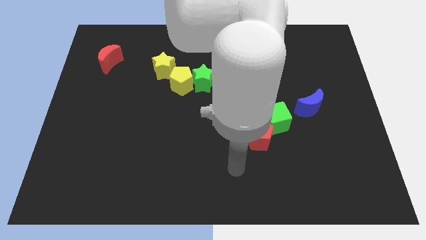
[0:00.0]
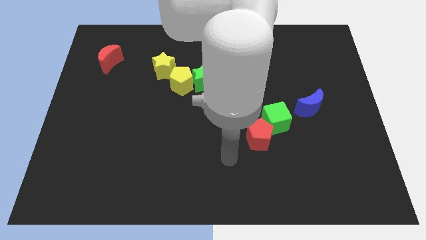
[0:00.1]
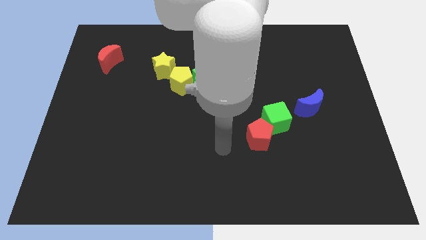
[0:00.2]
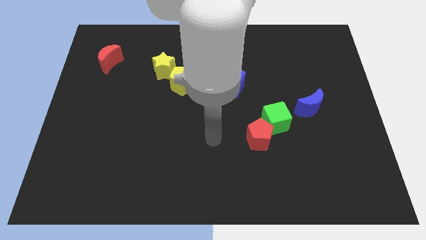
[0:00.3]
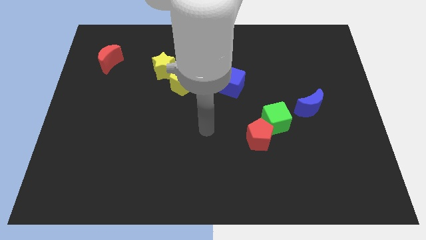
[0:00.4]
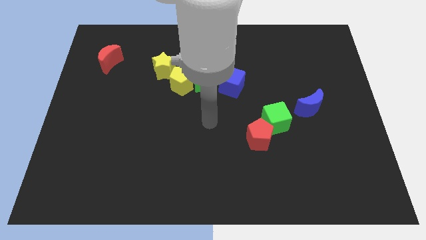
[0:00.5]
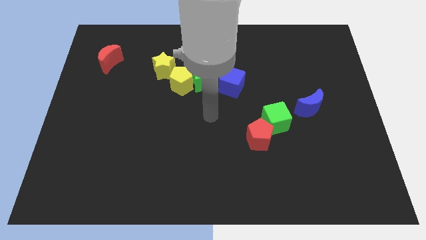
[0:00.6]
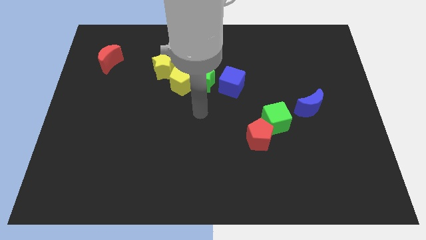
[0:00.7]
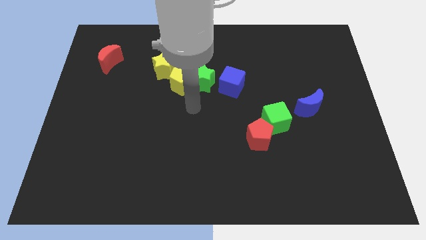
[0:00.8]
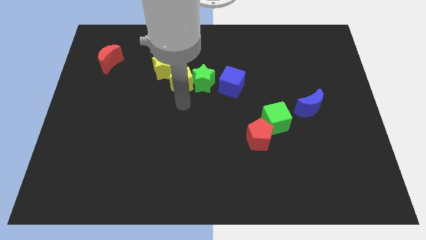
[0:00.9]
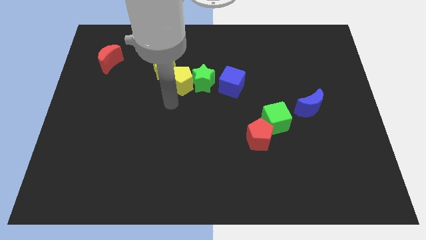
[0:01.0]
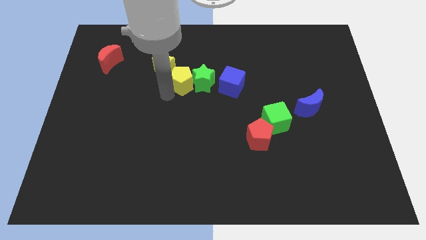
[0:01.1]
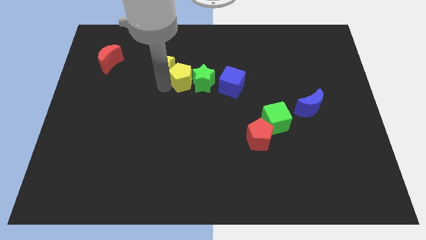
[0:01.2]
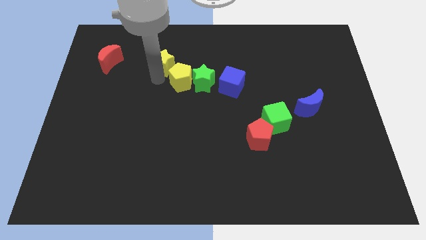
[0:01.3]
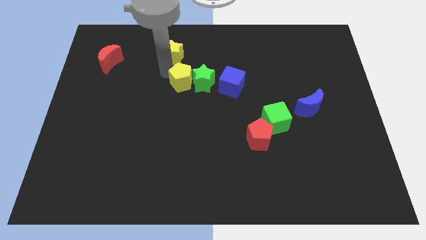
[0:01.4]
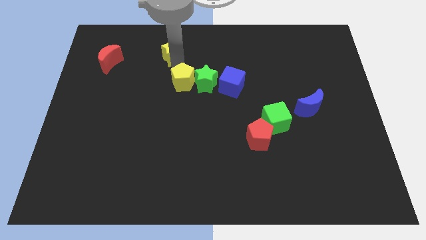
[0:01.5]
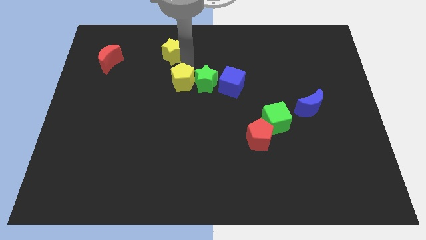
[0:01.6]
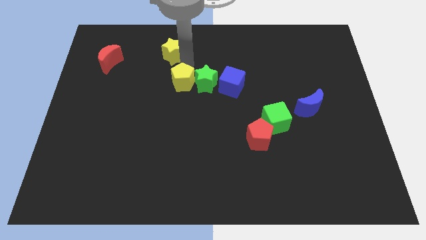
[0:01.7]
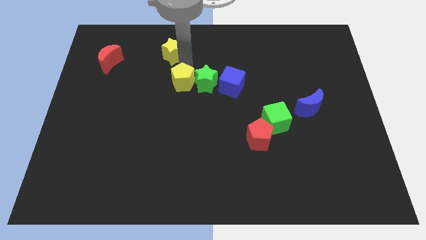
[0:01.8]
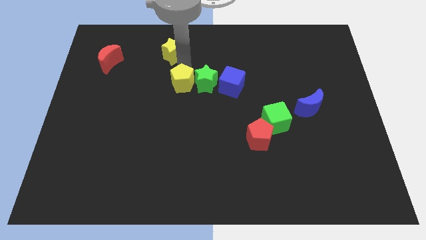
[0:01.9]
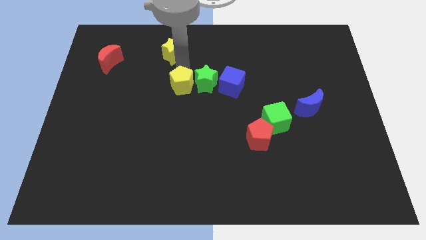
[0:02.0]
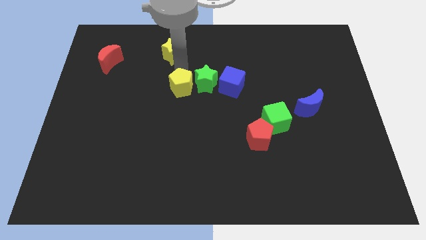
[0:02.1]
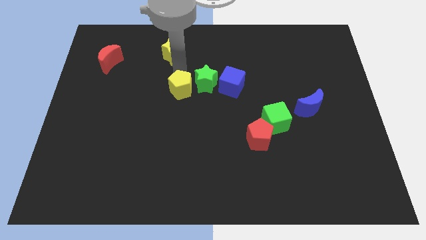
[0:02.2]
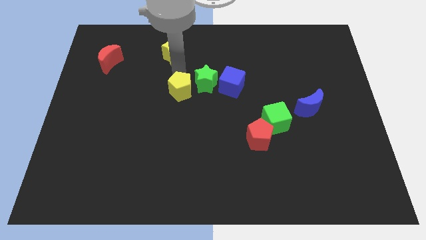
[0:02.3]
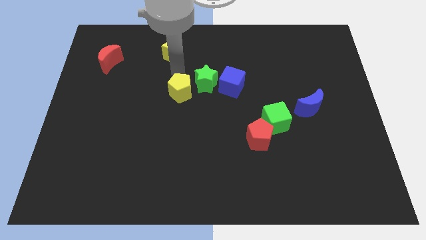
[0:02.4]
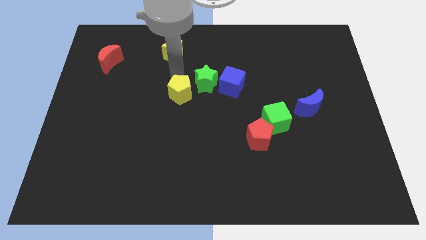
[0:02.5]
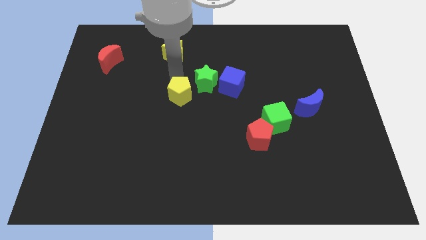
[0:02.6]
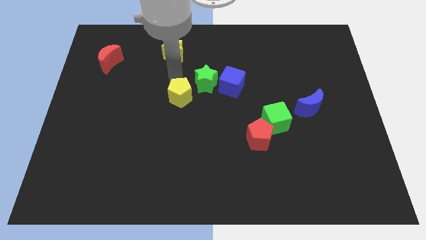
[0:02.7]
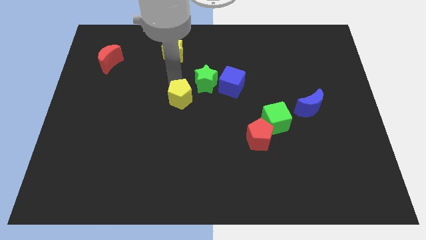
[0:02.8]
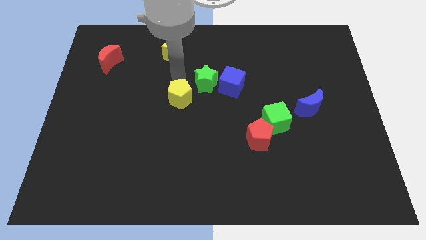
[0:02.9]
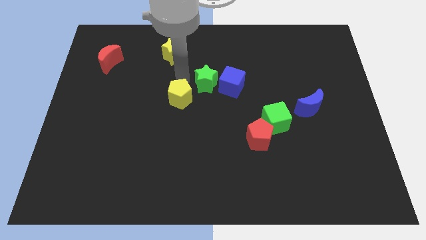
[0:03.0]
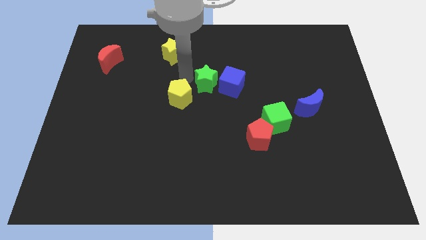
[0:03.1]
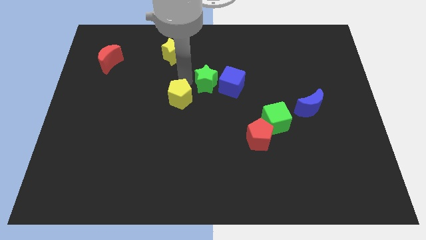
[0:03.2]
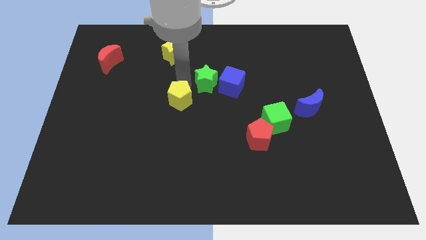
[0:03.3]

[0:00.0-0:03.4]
move the yellow pentagon away from the green star and yellow star

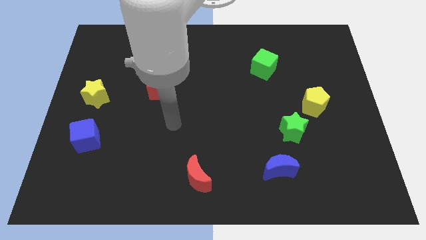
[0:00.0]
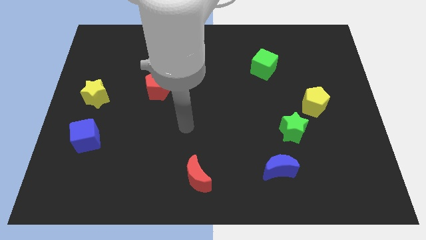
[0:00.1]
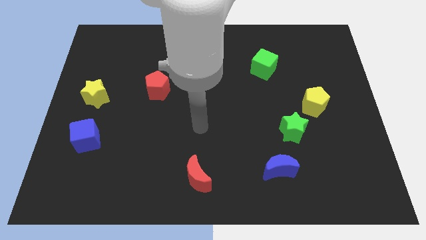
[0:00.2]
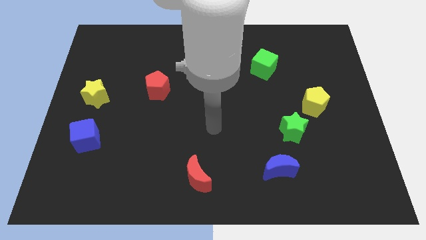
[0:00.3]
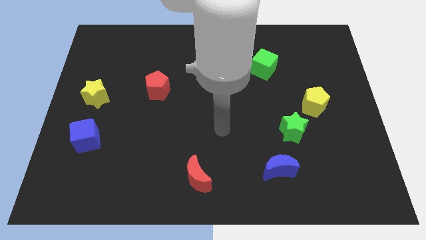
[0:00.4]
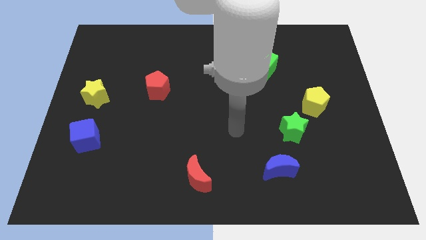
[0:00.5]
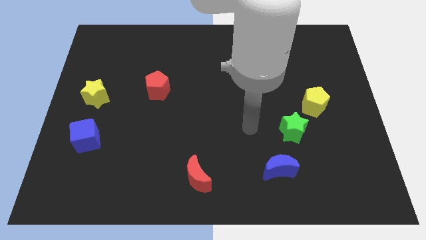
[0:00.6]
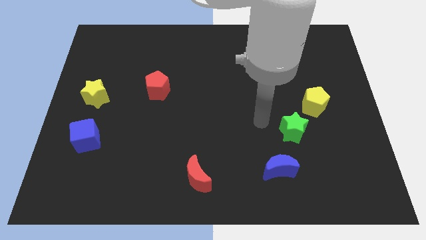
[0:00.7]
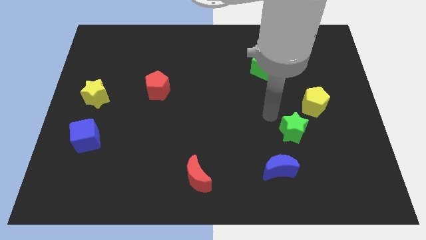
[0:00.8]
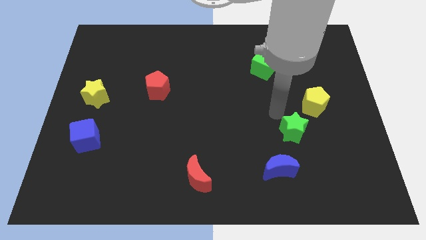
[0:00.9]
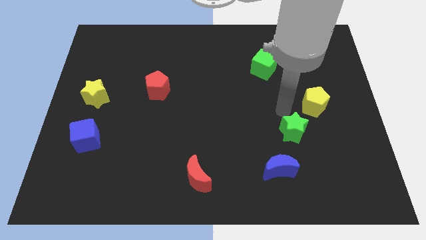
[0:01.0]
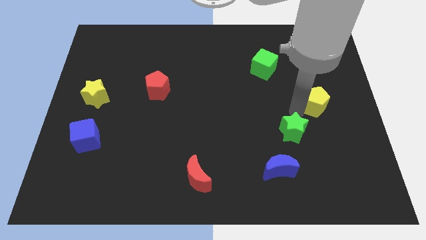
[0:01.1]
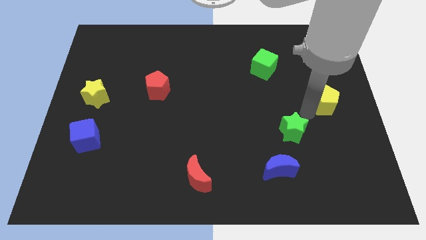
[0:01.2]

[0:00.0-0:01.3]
pull the green star apart from the yellow pentagon

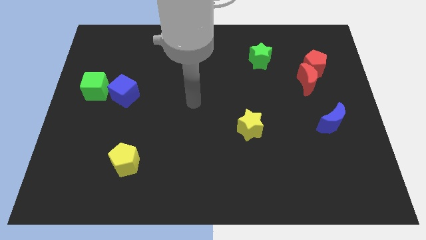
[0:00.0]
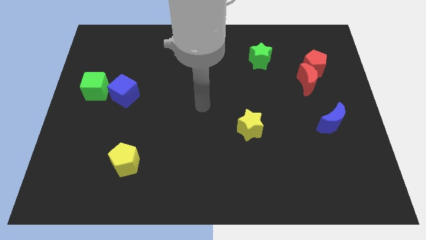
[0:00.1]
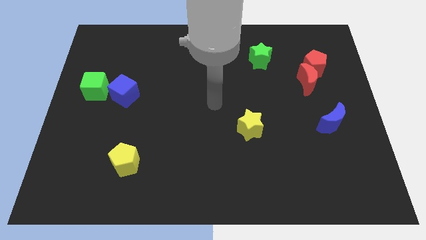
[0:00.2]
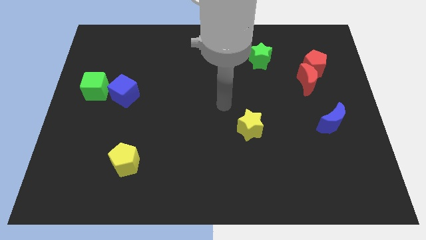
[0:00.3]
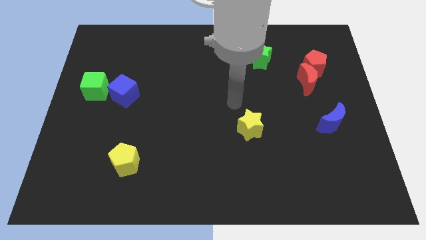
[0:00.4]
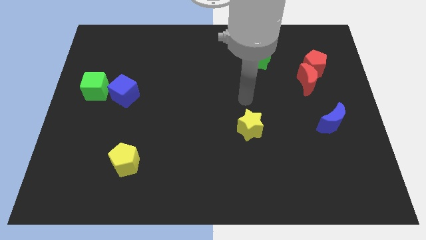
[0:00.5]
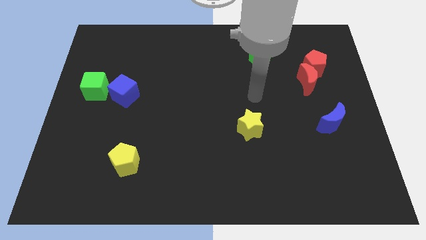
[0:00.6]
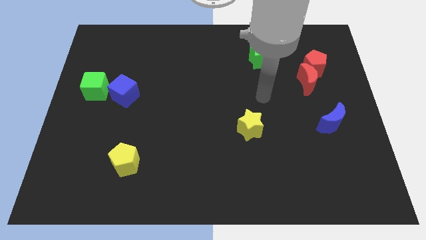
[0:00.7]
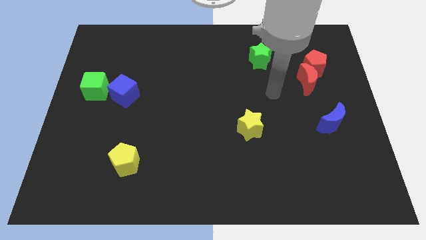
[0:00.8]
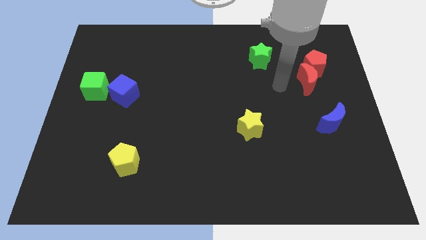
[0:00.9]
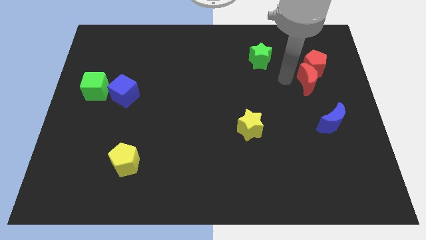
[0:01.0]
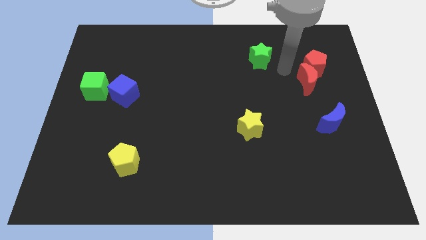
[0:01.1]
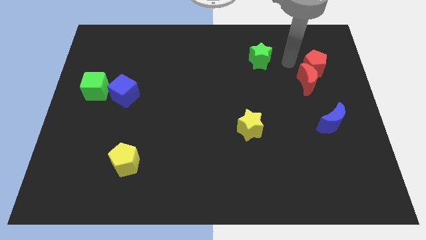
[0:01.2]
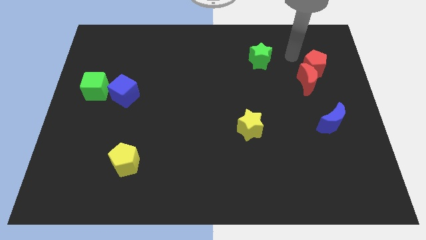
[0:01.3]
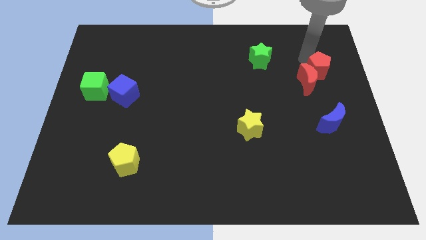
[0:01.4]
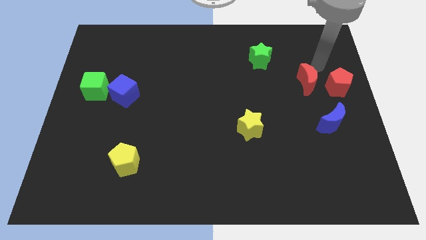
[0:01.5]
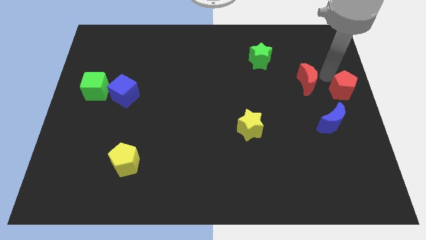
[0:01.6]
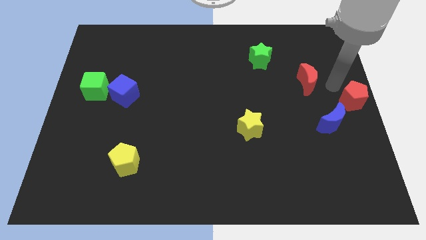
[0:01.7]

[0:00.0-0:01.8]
separate the red moon from the red pentagon

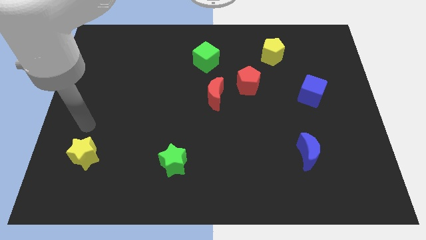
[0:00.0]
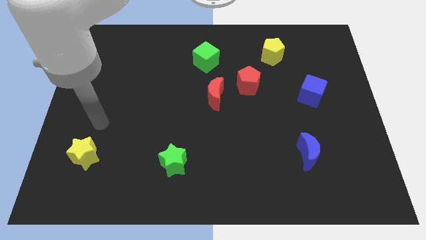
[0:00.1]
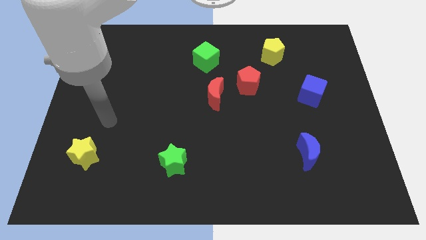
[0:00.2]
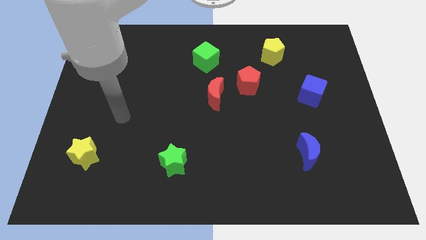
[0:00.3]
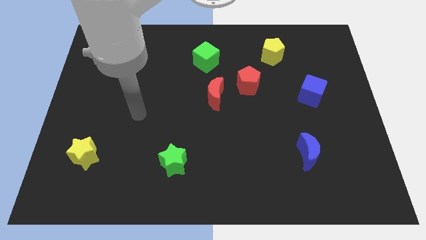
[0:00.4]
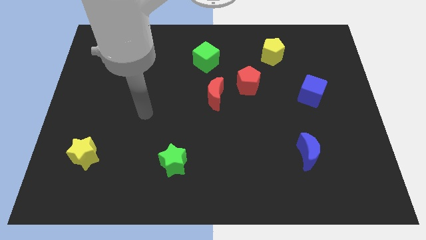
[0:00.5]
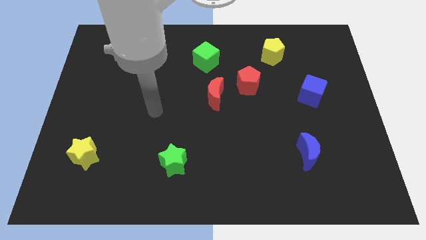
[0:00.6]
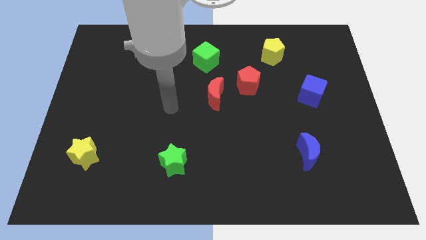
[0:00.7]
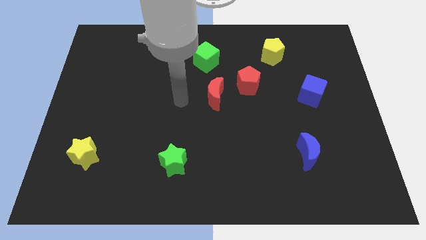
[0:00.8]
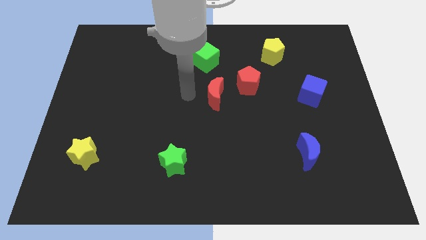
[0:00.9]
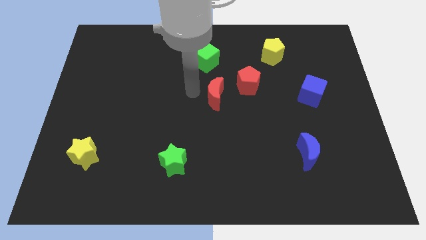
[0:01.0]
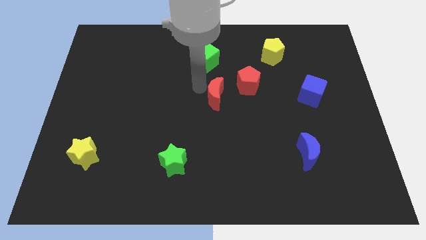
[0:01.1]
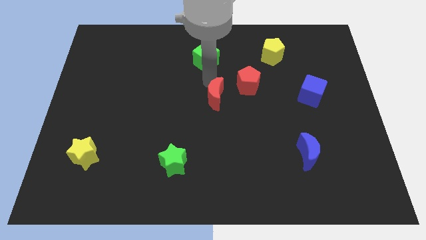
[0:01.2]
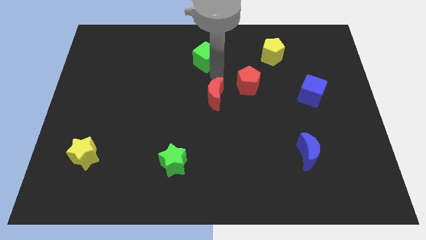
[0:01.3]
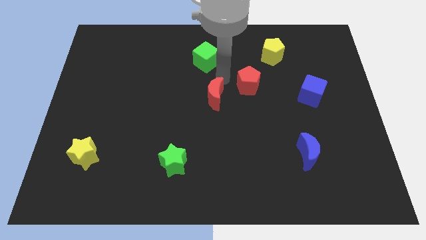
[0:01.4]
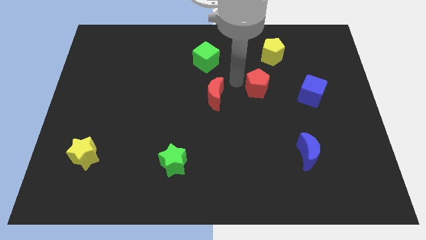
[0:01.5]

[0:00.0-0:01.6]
move the red moon away from the red pentagon

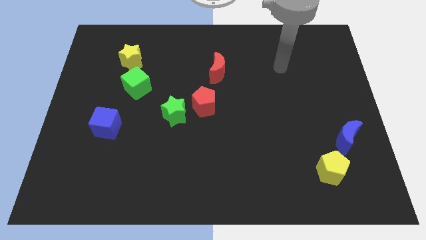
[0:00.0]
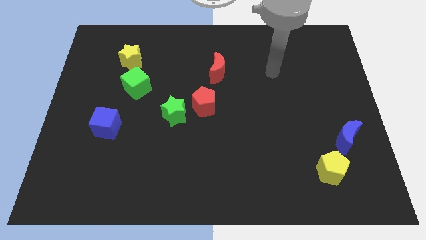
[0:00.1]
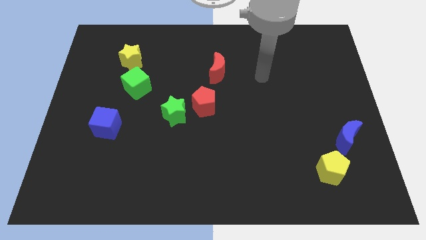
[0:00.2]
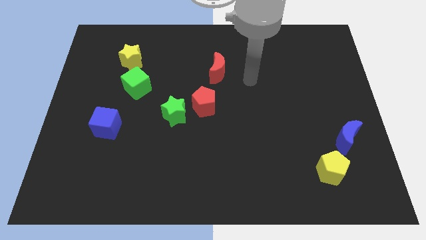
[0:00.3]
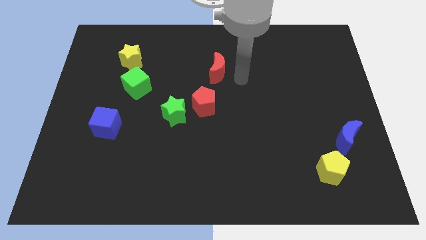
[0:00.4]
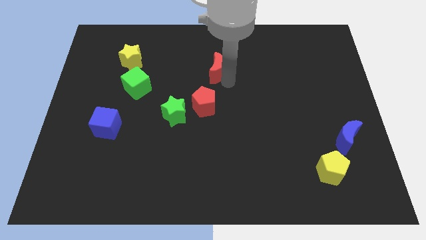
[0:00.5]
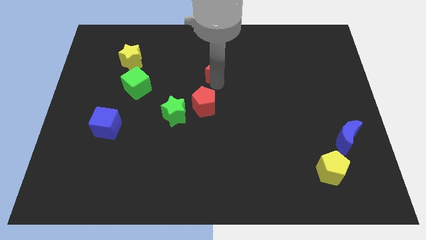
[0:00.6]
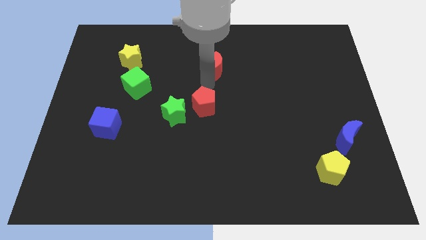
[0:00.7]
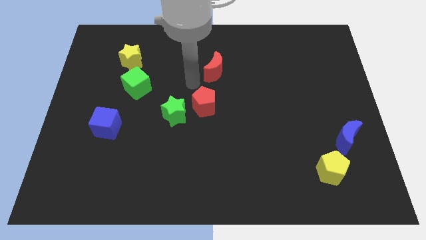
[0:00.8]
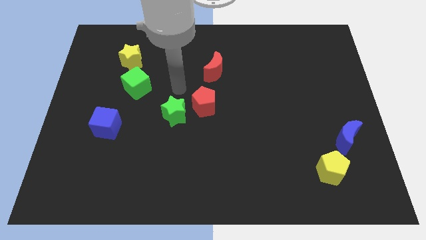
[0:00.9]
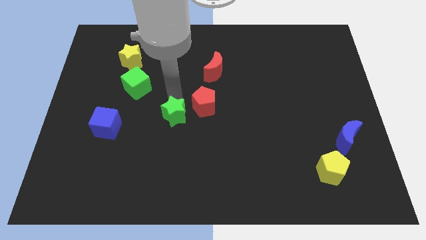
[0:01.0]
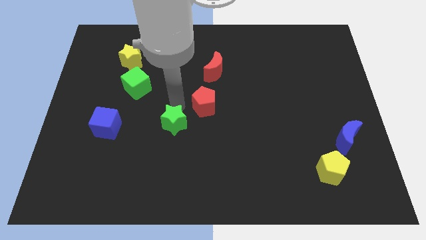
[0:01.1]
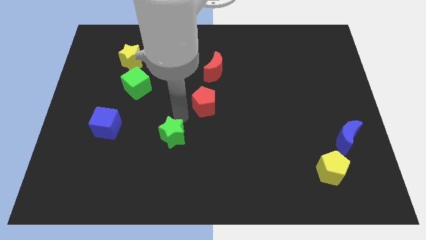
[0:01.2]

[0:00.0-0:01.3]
separate the red pentagon from the green star
